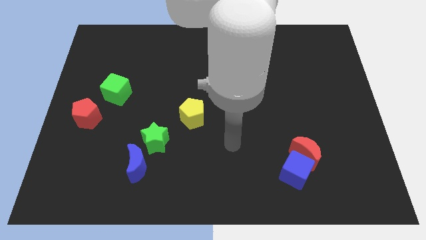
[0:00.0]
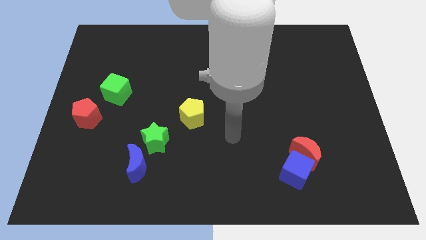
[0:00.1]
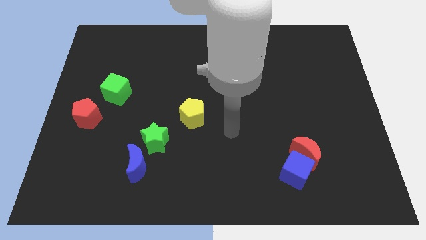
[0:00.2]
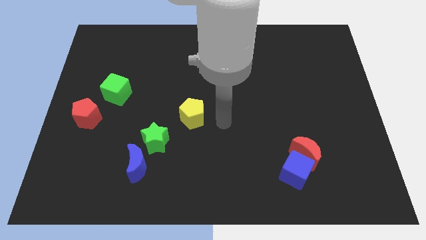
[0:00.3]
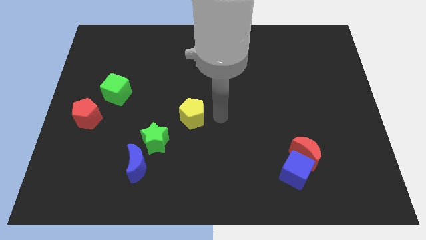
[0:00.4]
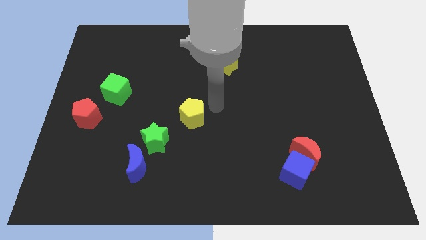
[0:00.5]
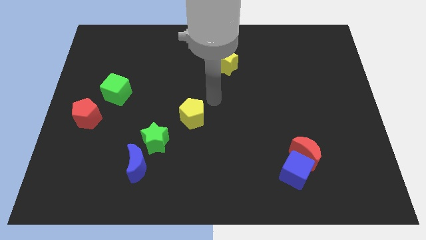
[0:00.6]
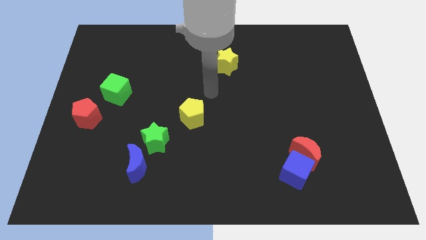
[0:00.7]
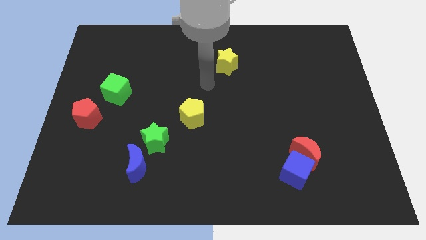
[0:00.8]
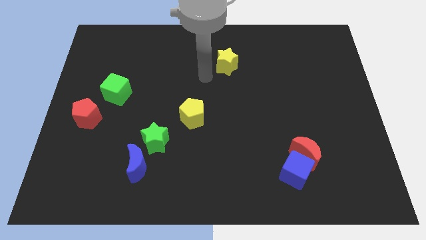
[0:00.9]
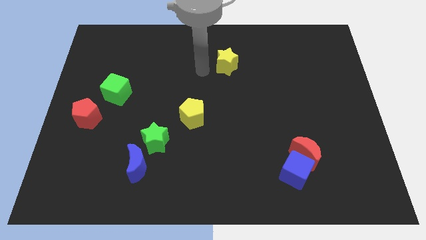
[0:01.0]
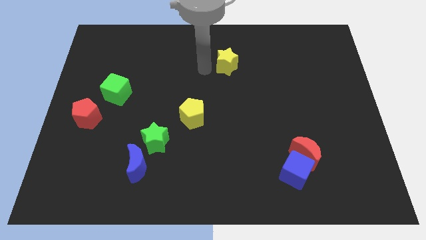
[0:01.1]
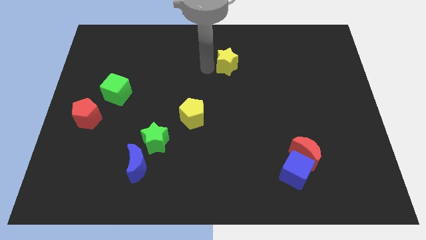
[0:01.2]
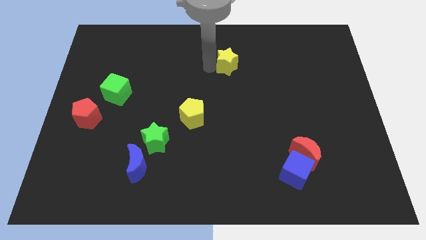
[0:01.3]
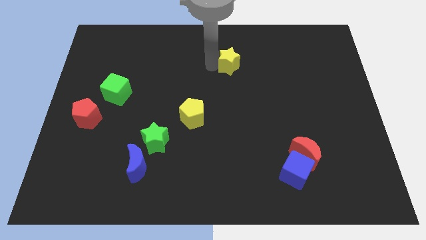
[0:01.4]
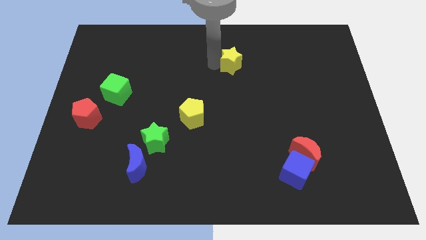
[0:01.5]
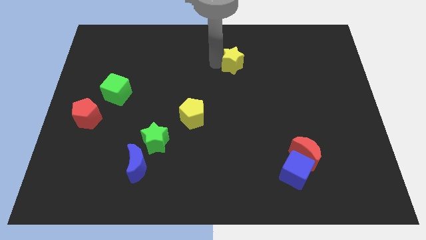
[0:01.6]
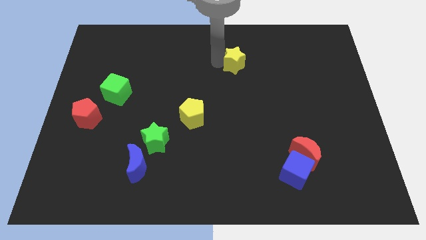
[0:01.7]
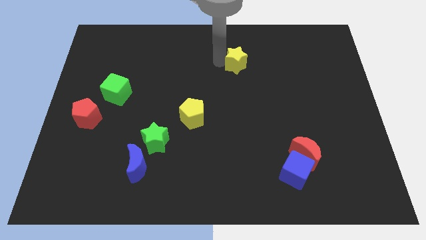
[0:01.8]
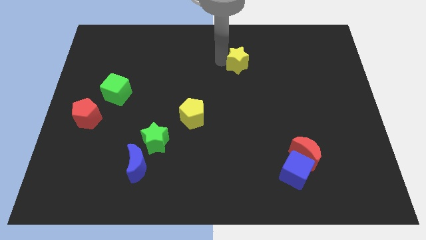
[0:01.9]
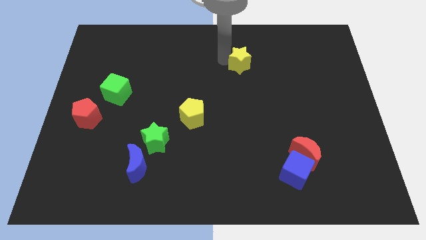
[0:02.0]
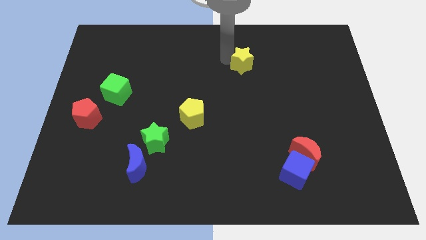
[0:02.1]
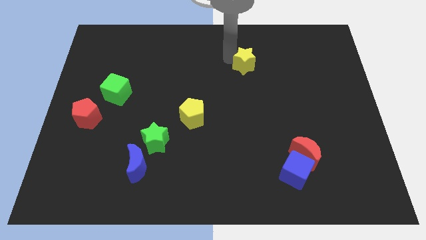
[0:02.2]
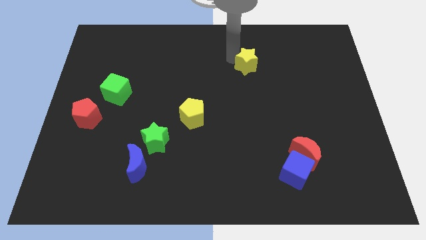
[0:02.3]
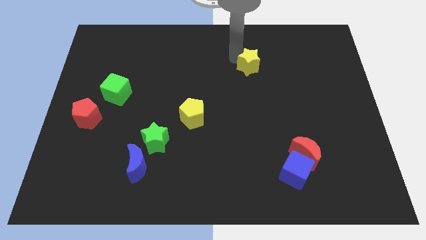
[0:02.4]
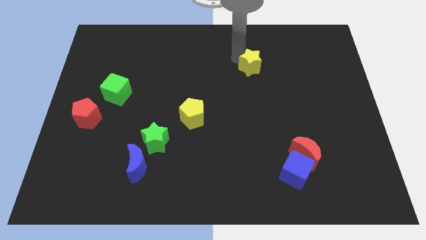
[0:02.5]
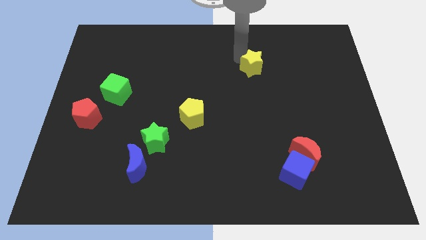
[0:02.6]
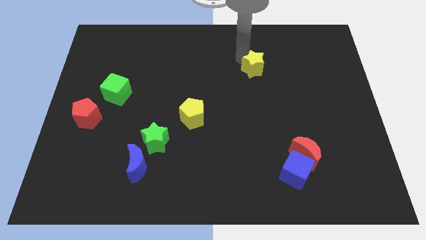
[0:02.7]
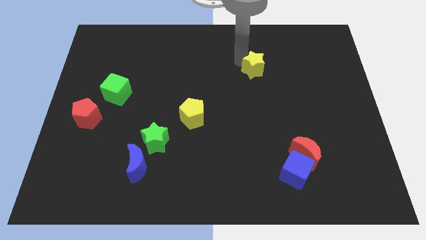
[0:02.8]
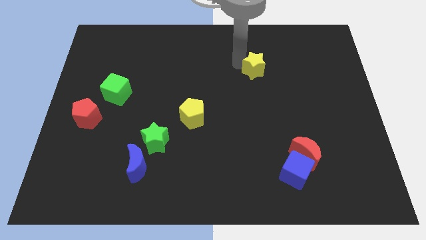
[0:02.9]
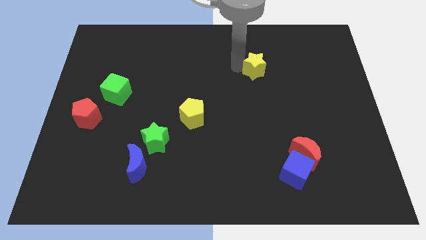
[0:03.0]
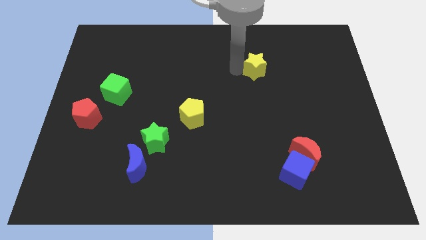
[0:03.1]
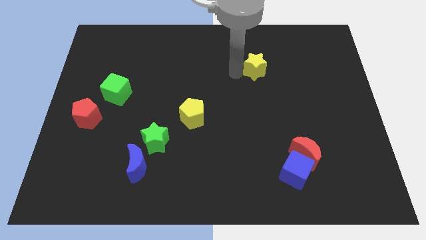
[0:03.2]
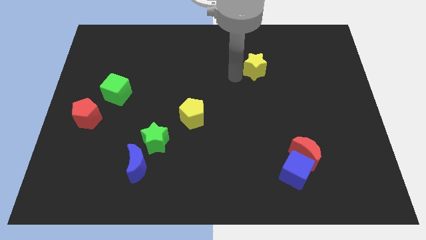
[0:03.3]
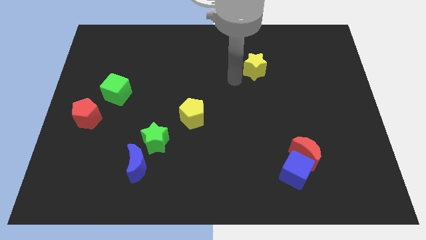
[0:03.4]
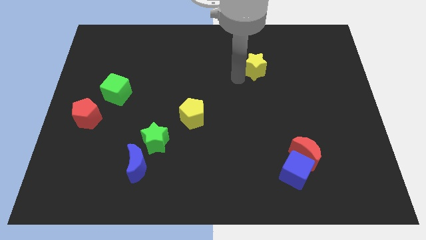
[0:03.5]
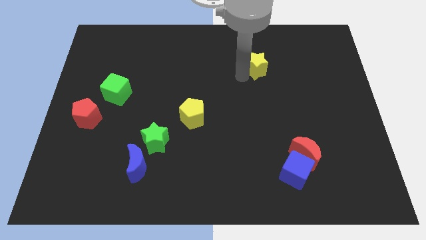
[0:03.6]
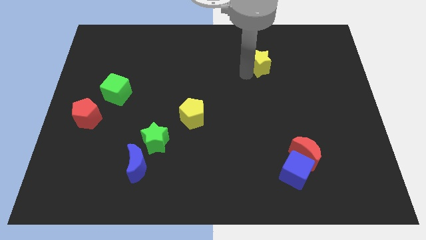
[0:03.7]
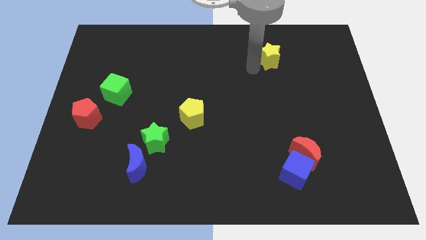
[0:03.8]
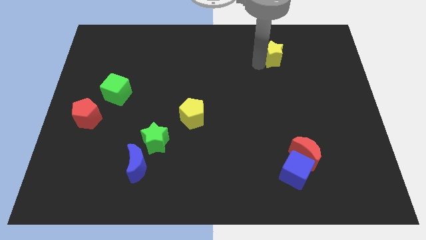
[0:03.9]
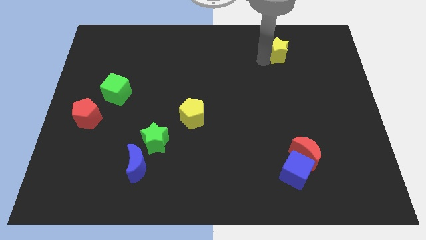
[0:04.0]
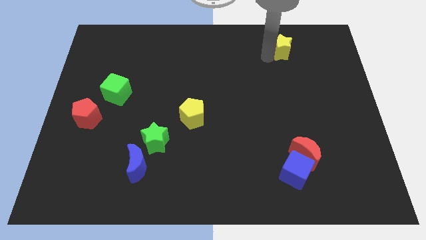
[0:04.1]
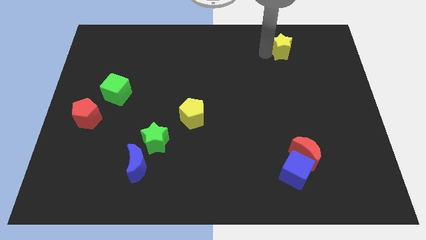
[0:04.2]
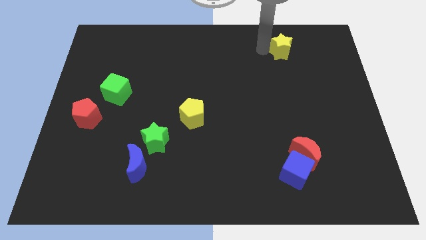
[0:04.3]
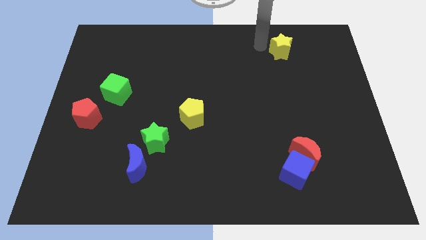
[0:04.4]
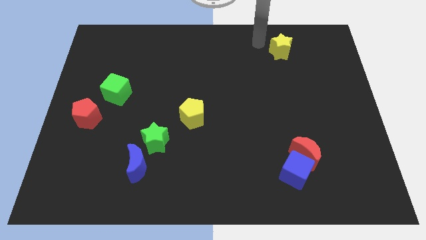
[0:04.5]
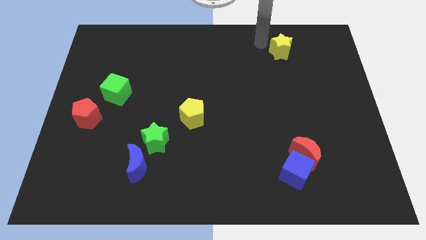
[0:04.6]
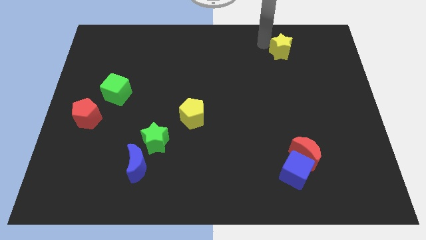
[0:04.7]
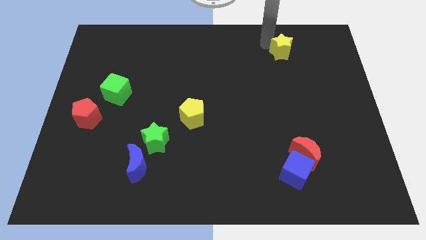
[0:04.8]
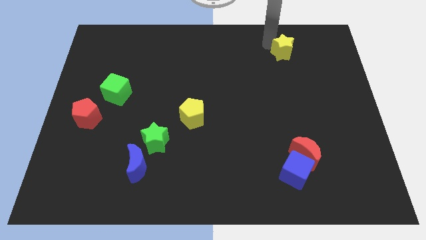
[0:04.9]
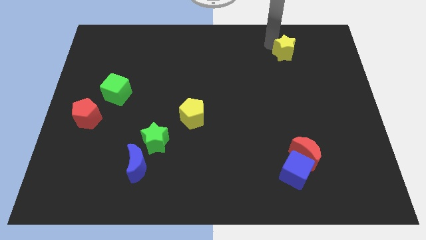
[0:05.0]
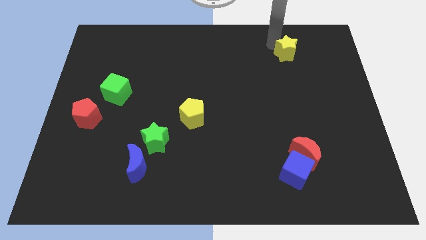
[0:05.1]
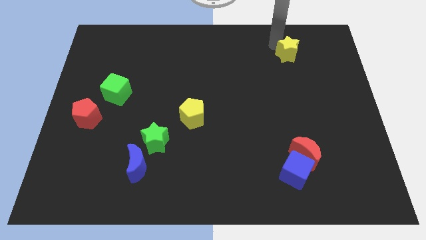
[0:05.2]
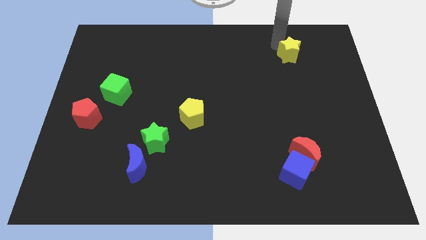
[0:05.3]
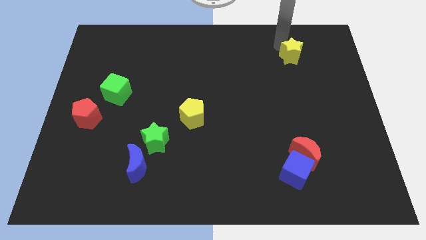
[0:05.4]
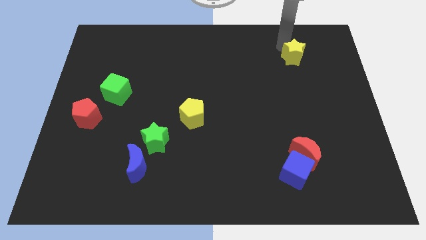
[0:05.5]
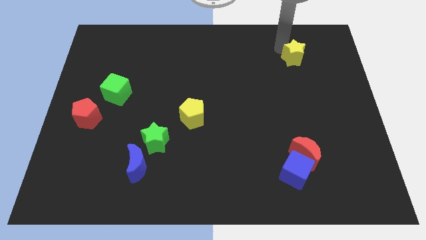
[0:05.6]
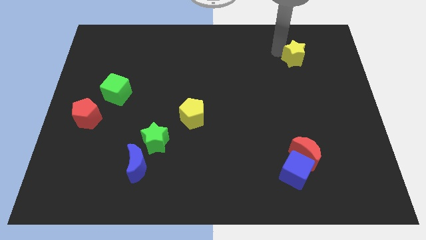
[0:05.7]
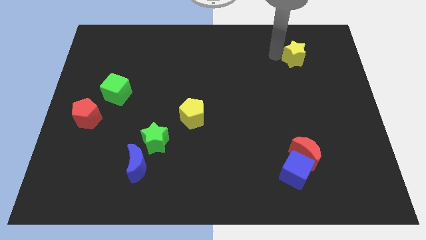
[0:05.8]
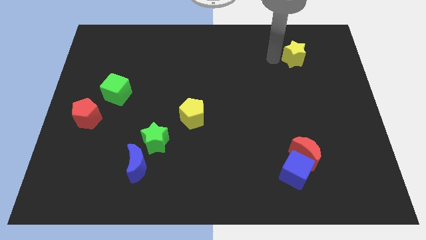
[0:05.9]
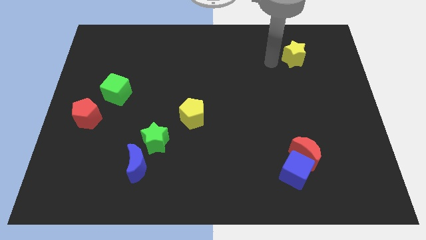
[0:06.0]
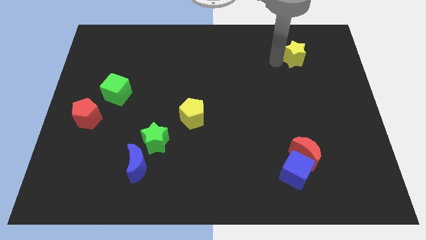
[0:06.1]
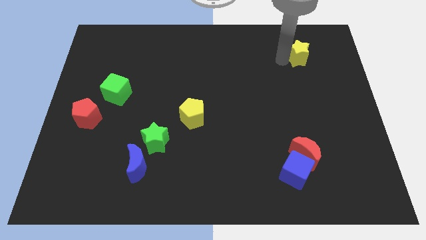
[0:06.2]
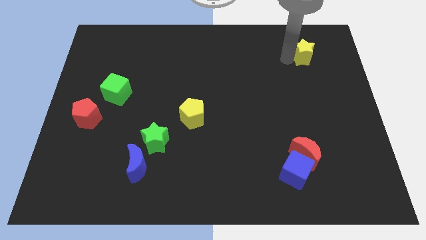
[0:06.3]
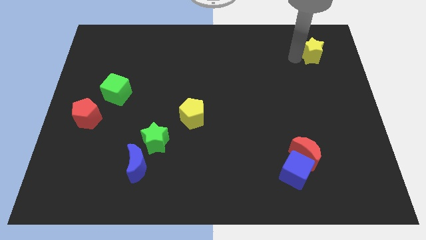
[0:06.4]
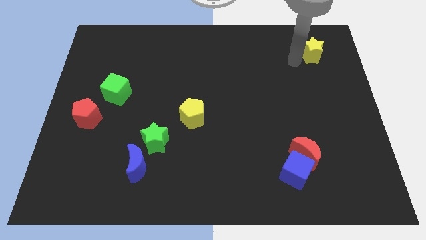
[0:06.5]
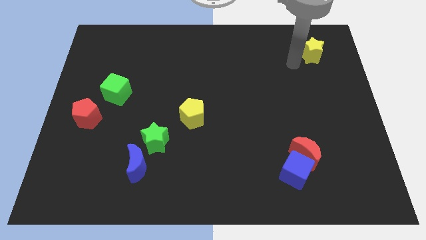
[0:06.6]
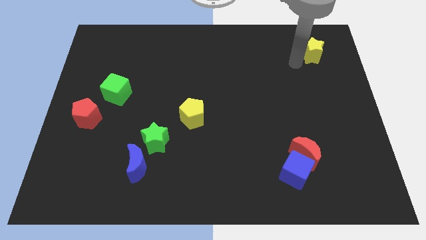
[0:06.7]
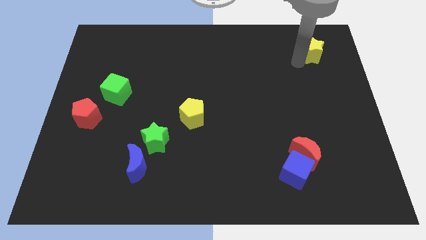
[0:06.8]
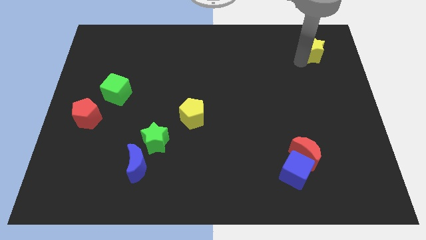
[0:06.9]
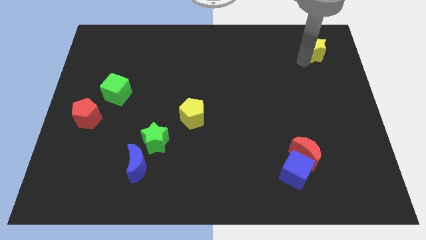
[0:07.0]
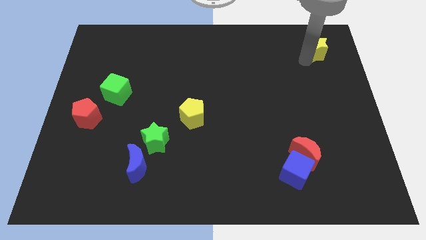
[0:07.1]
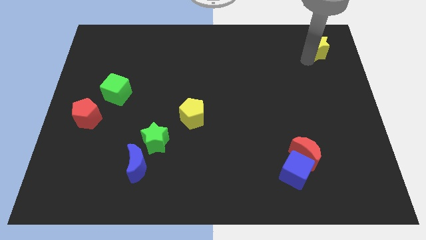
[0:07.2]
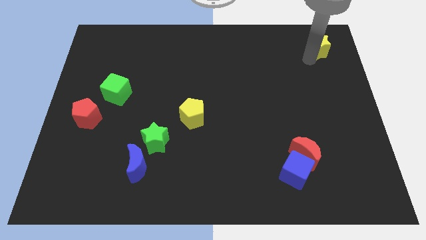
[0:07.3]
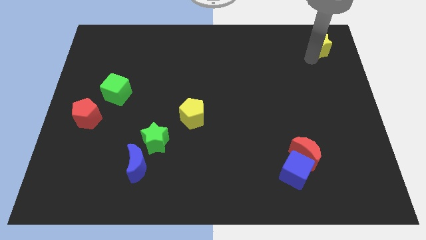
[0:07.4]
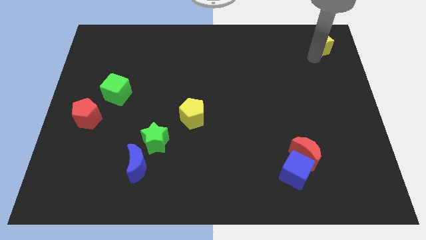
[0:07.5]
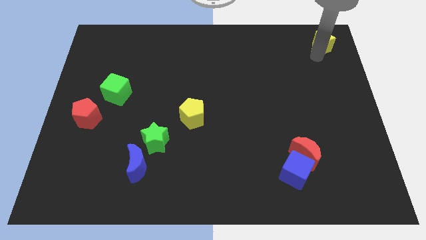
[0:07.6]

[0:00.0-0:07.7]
slide the yellow star to the top right
